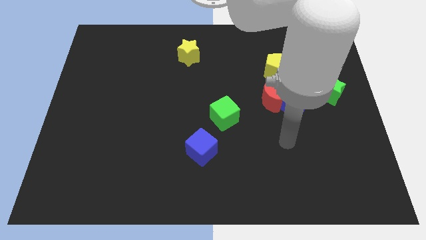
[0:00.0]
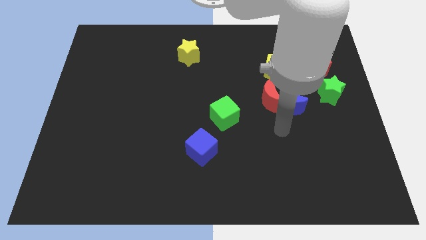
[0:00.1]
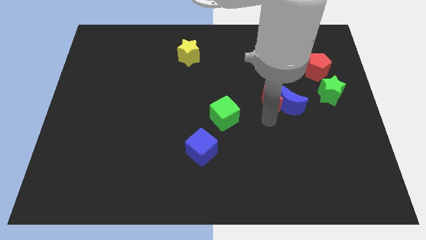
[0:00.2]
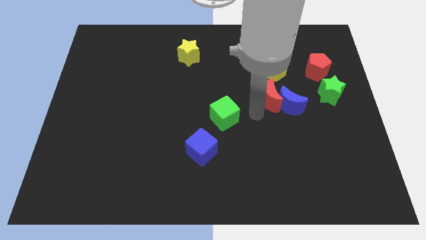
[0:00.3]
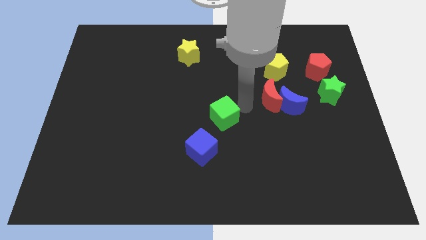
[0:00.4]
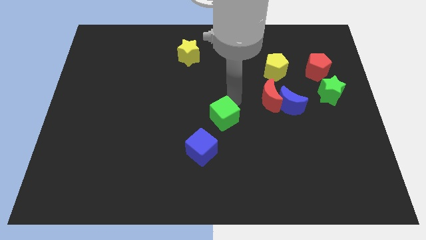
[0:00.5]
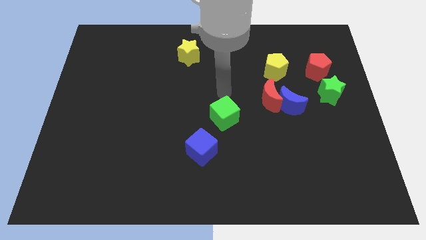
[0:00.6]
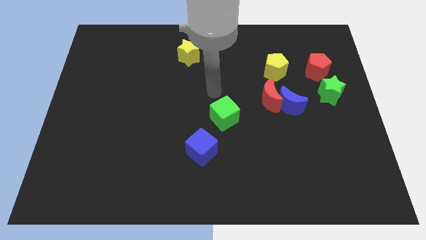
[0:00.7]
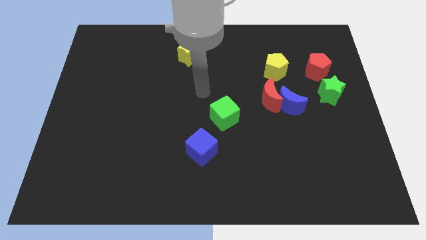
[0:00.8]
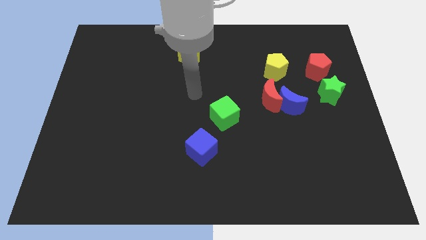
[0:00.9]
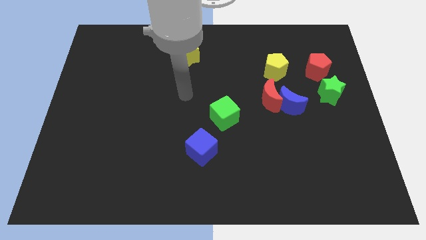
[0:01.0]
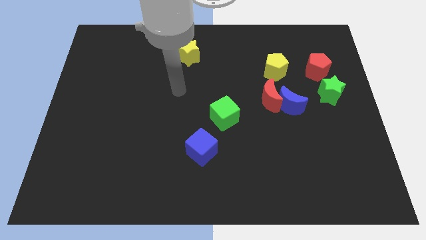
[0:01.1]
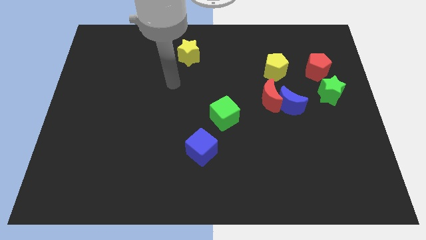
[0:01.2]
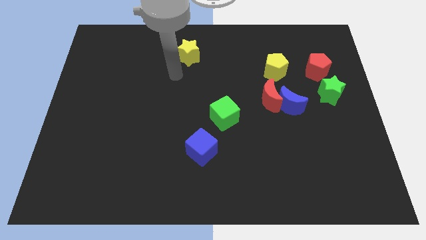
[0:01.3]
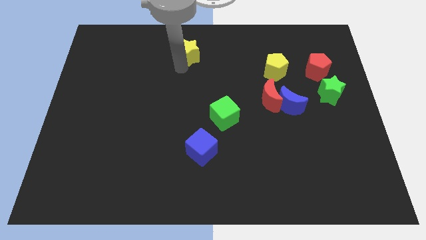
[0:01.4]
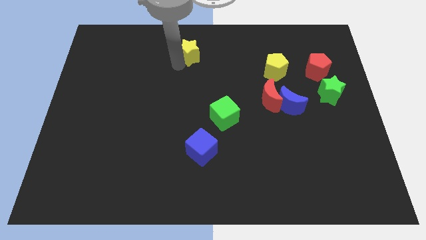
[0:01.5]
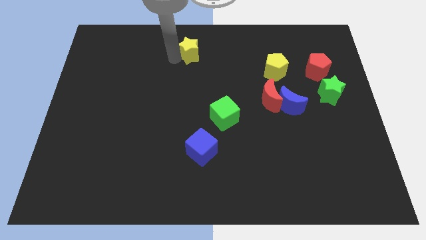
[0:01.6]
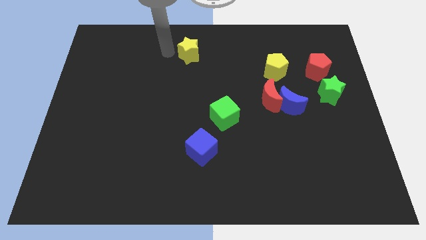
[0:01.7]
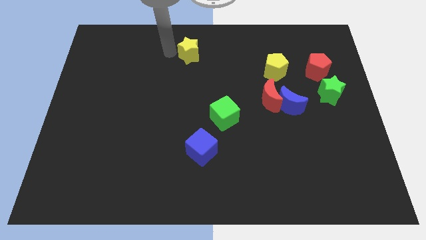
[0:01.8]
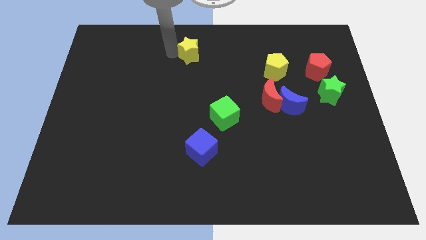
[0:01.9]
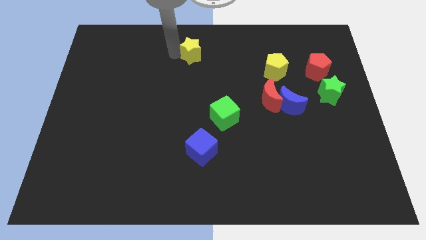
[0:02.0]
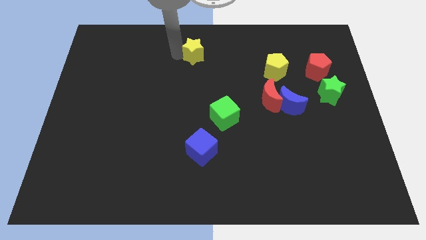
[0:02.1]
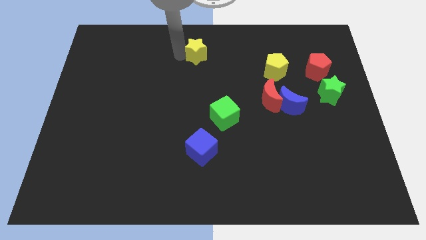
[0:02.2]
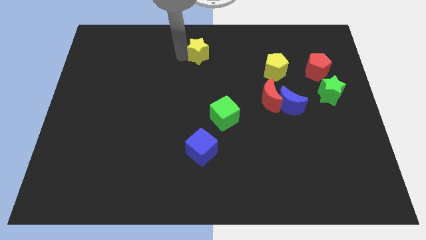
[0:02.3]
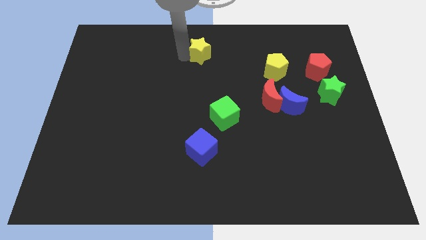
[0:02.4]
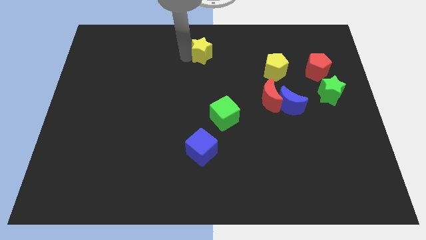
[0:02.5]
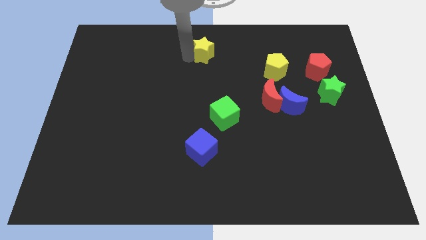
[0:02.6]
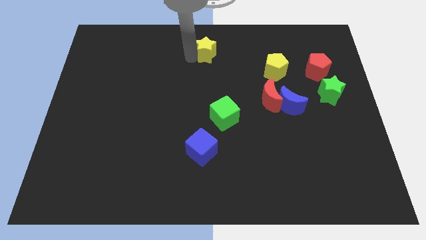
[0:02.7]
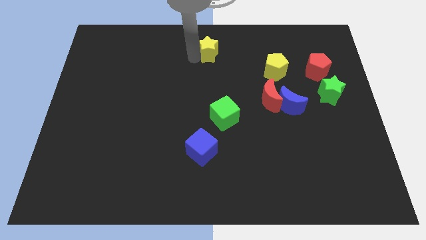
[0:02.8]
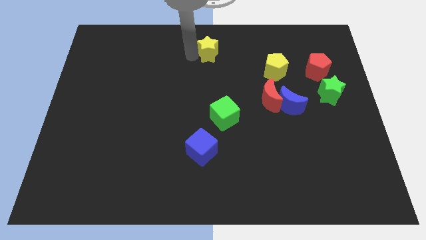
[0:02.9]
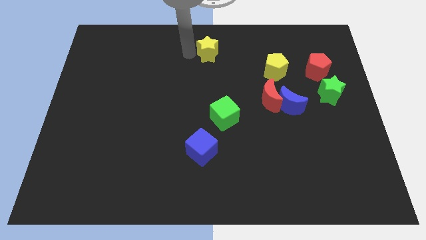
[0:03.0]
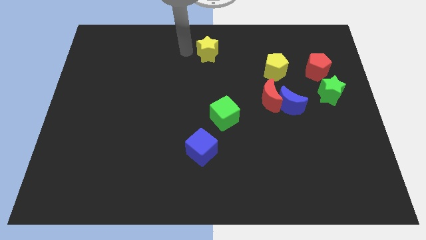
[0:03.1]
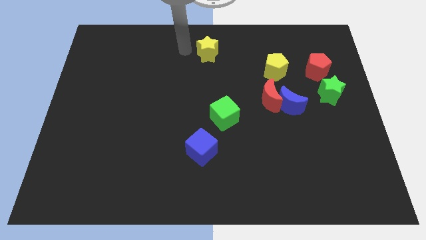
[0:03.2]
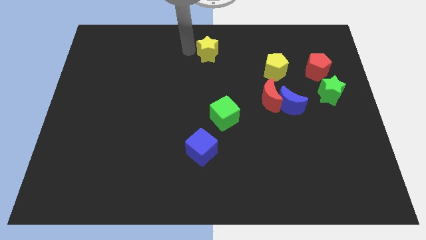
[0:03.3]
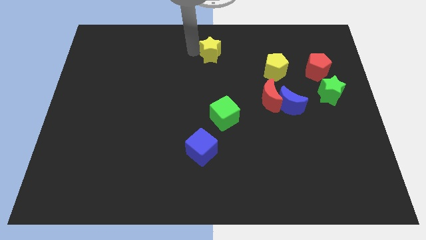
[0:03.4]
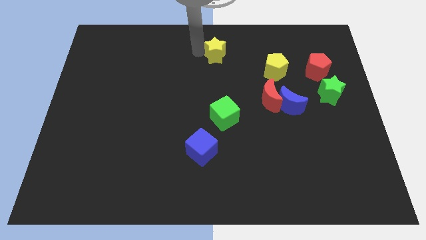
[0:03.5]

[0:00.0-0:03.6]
move the yellow star right a little bit

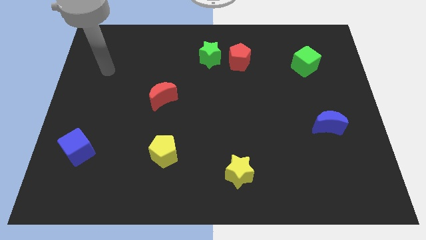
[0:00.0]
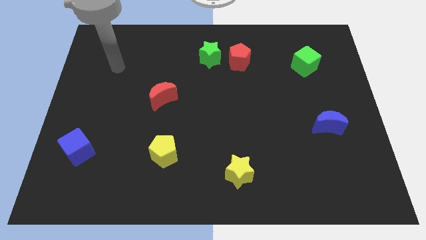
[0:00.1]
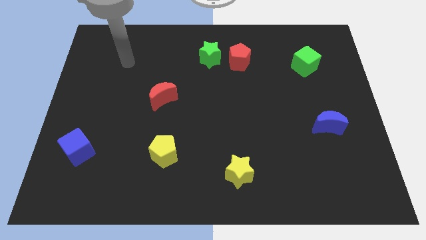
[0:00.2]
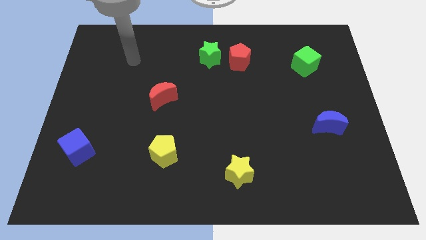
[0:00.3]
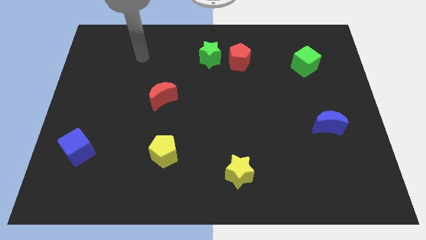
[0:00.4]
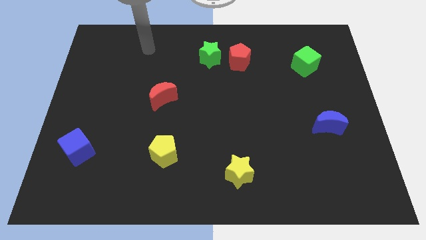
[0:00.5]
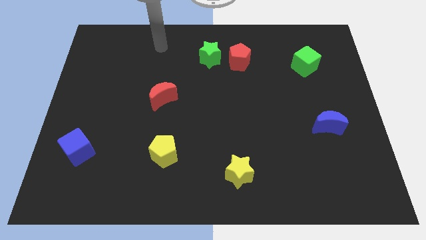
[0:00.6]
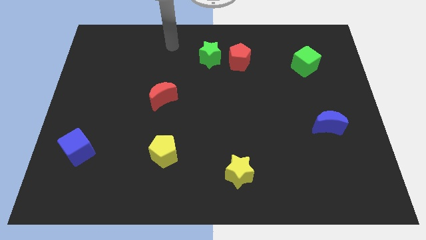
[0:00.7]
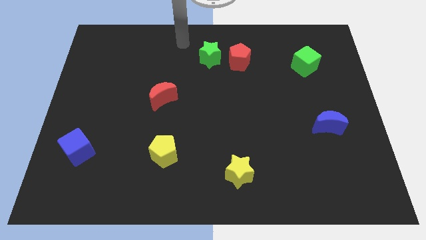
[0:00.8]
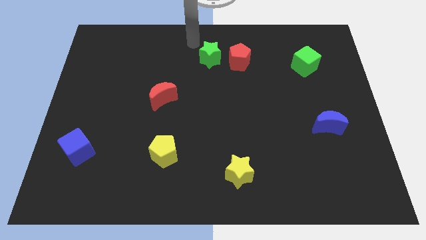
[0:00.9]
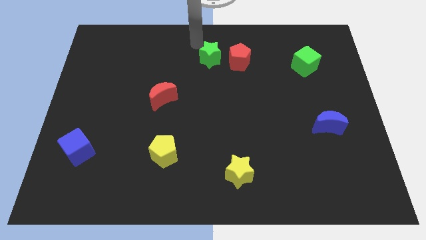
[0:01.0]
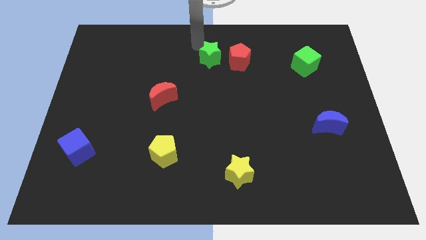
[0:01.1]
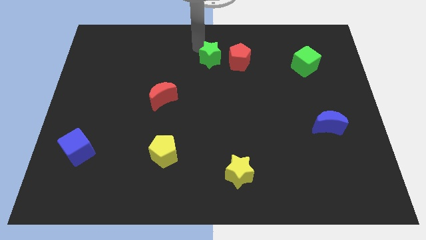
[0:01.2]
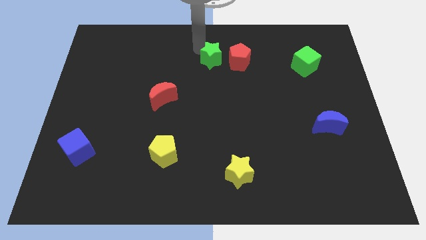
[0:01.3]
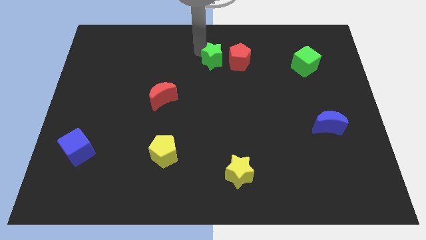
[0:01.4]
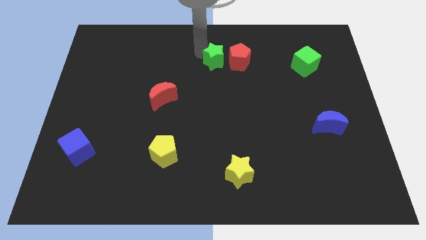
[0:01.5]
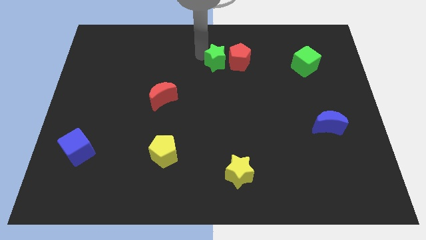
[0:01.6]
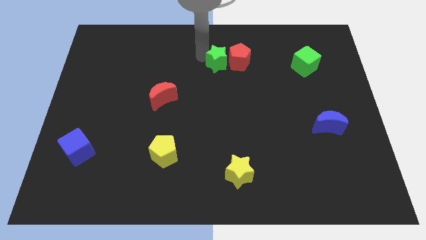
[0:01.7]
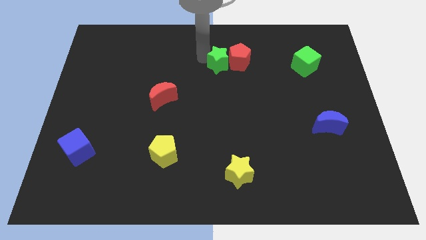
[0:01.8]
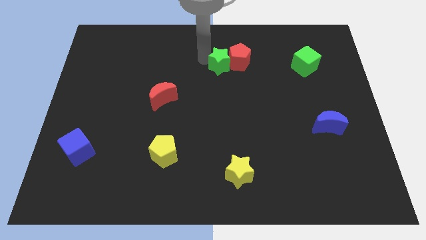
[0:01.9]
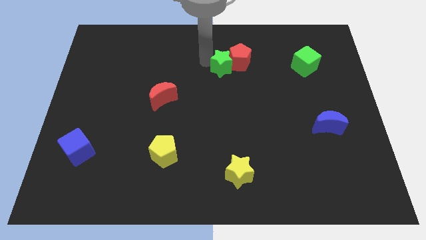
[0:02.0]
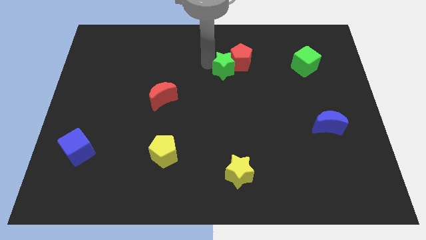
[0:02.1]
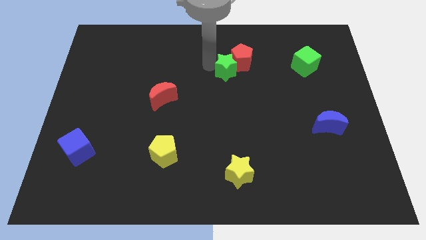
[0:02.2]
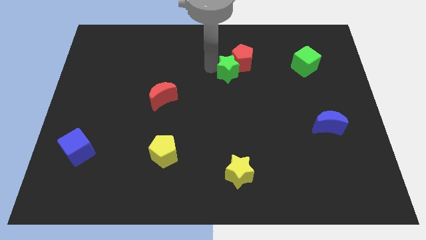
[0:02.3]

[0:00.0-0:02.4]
slide the green star a bit diagonally down and right

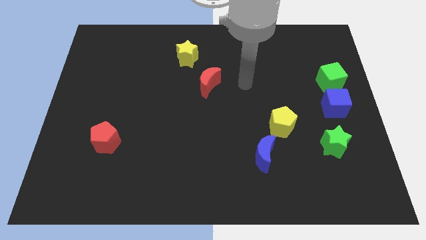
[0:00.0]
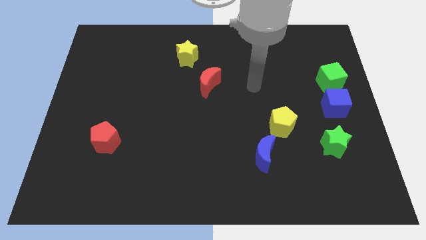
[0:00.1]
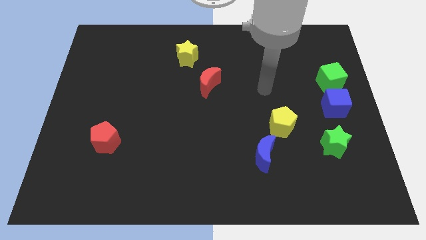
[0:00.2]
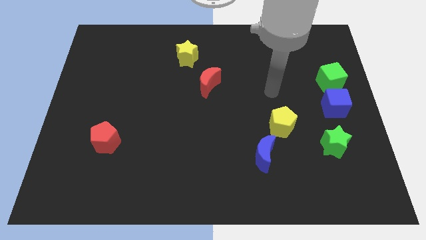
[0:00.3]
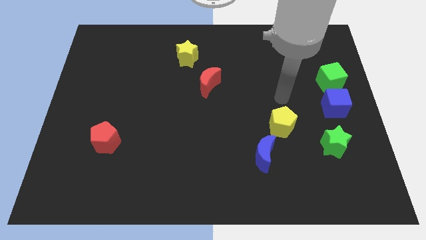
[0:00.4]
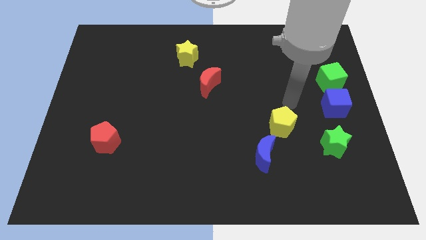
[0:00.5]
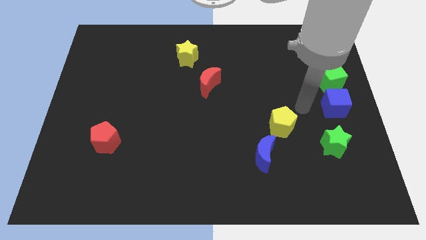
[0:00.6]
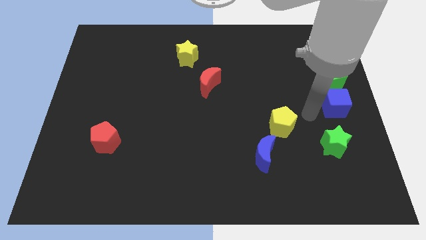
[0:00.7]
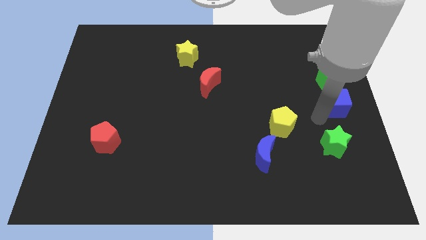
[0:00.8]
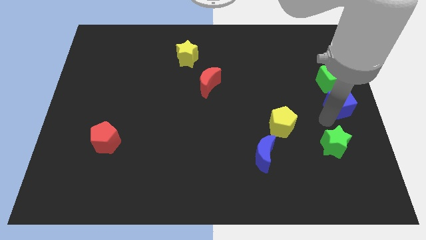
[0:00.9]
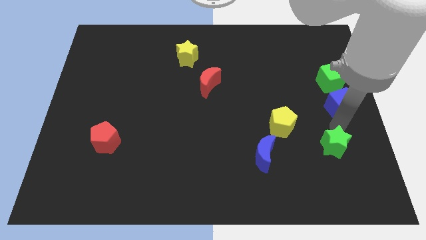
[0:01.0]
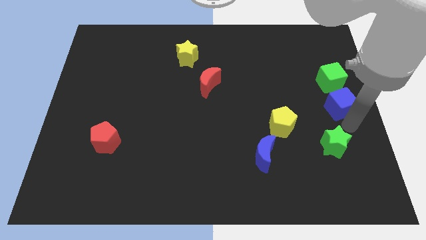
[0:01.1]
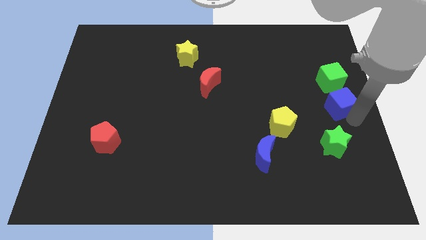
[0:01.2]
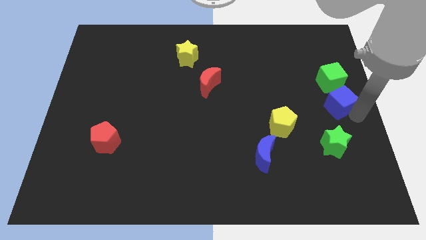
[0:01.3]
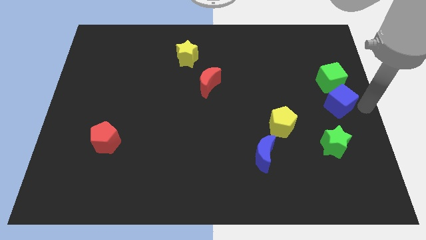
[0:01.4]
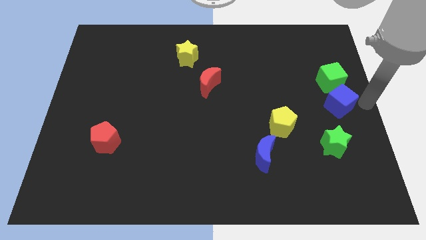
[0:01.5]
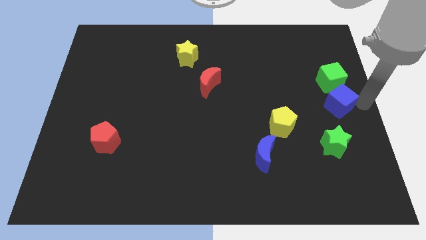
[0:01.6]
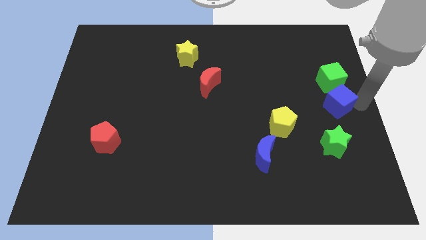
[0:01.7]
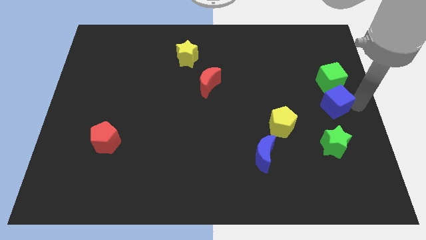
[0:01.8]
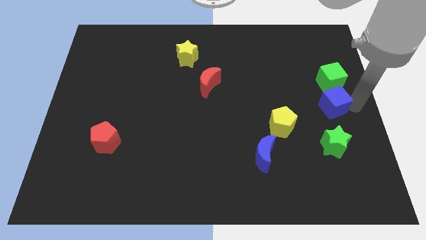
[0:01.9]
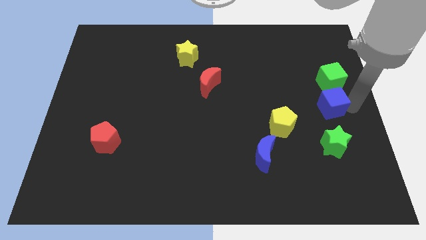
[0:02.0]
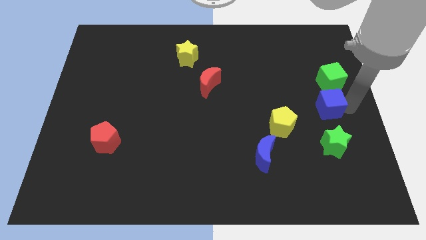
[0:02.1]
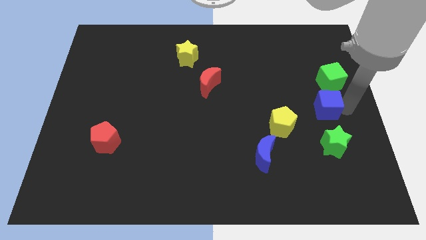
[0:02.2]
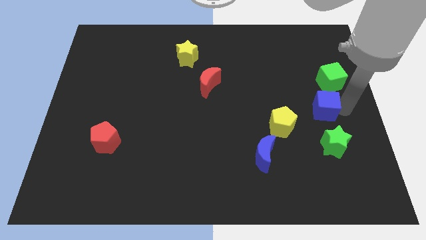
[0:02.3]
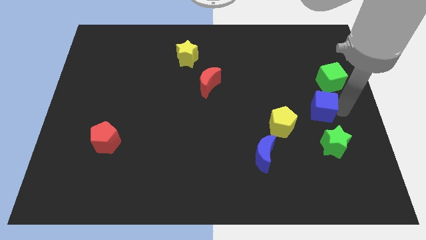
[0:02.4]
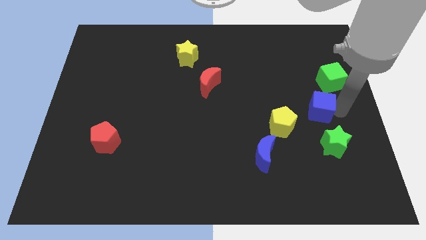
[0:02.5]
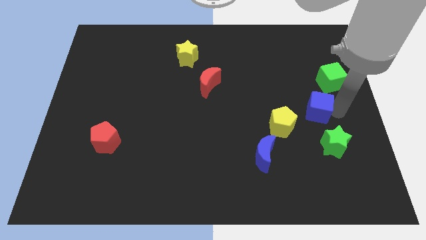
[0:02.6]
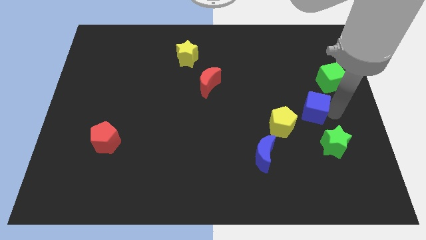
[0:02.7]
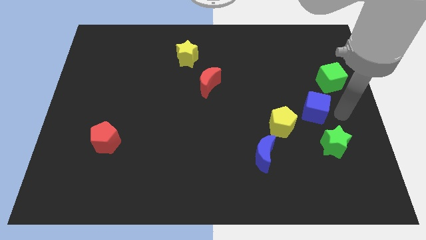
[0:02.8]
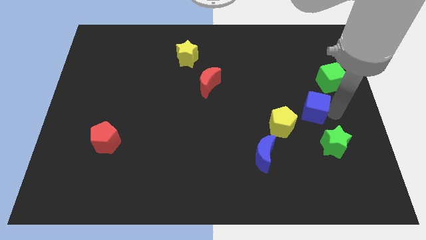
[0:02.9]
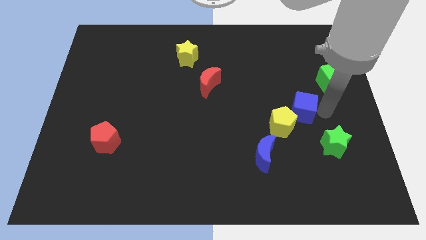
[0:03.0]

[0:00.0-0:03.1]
push the blue cube to the left somewhat
